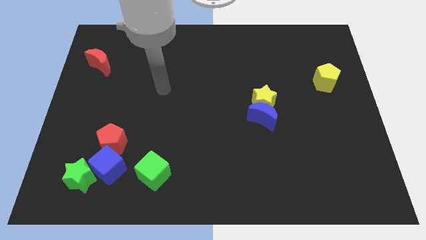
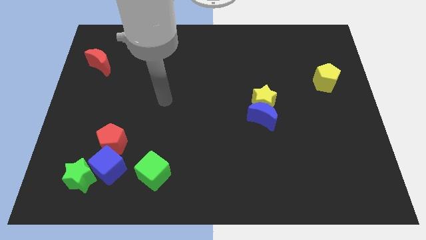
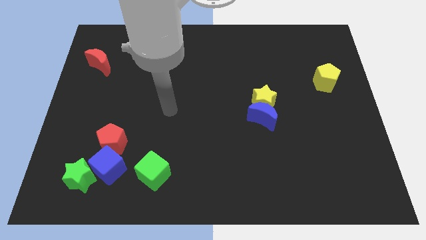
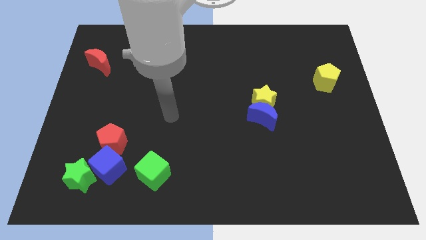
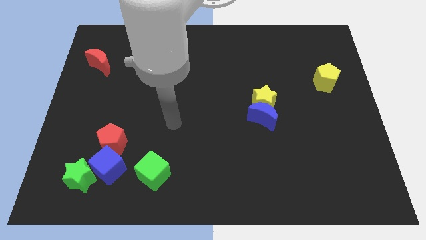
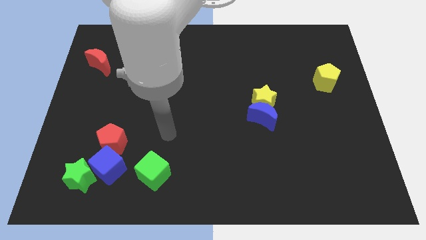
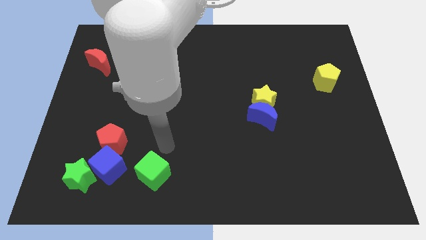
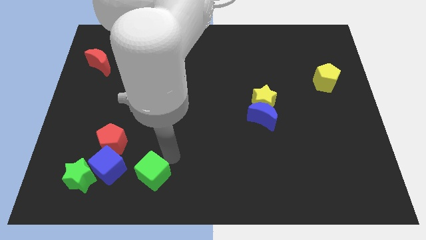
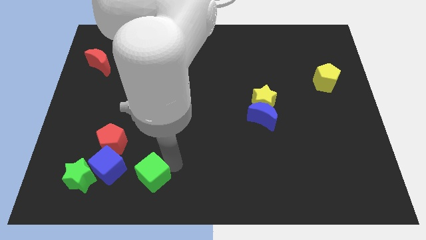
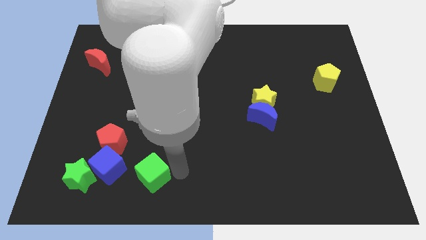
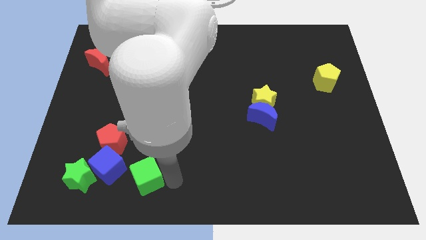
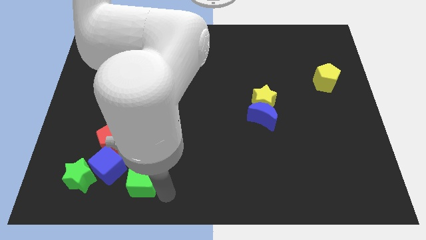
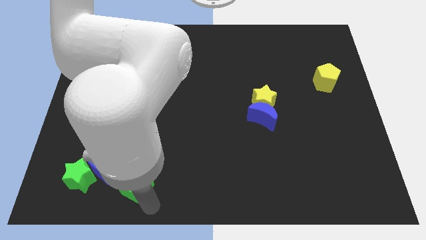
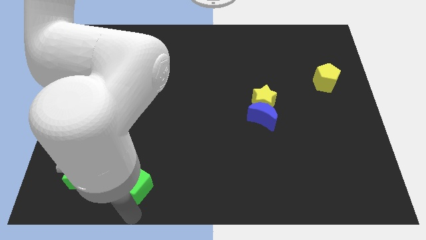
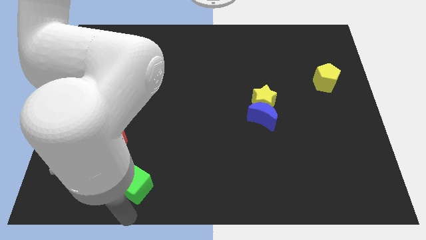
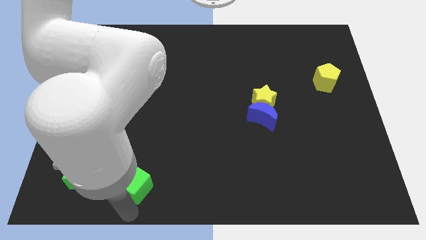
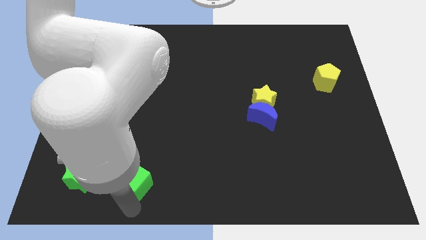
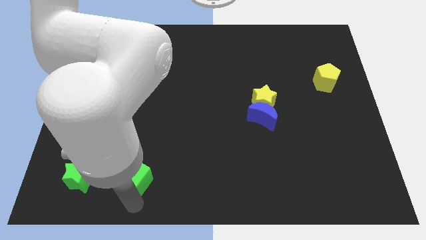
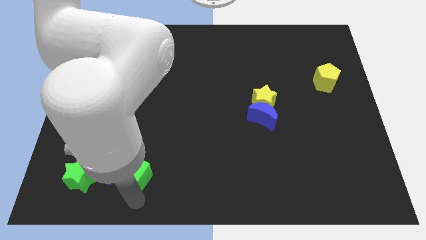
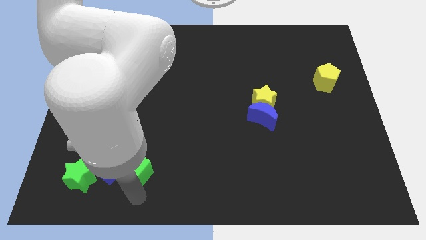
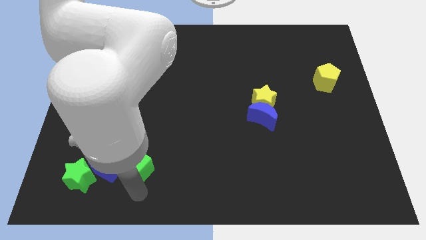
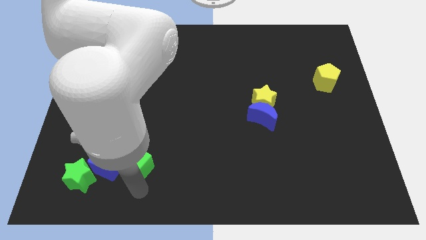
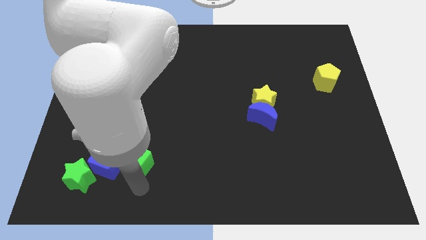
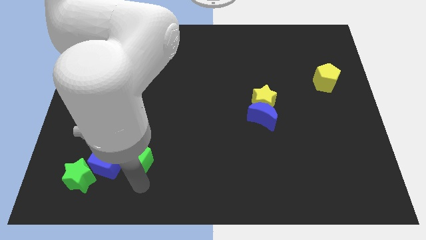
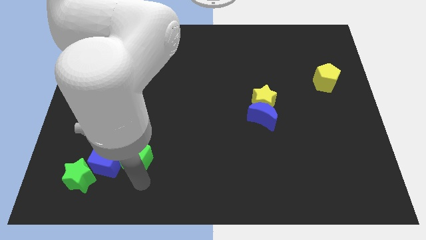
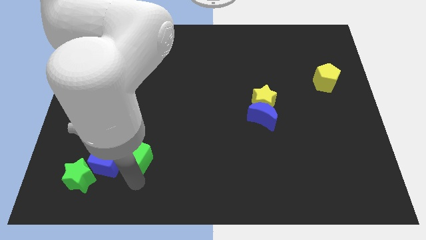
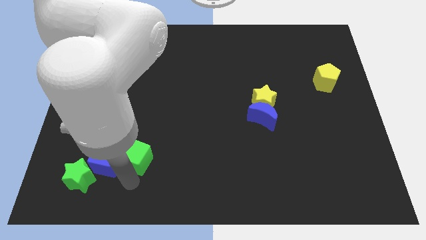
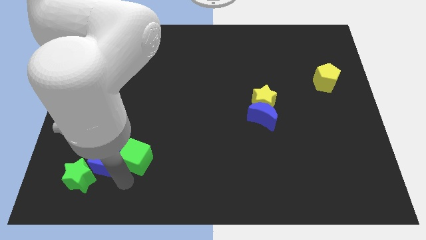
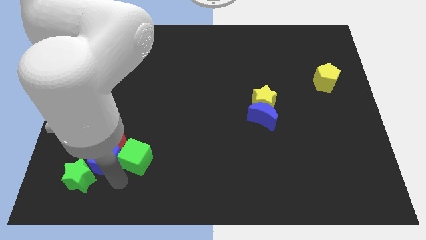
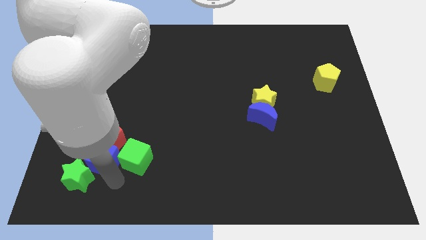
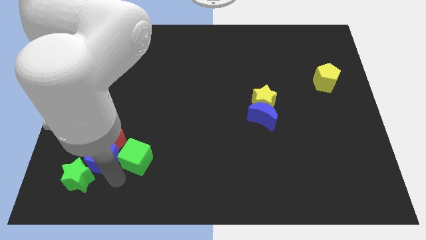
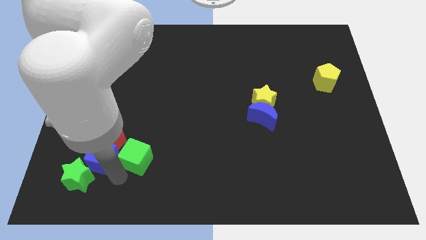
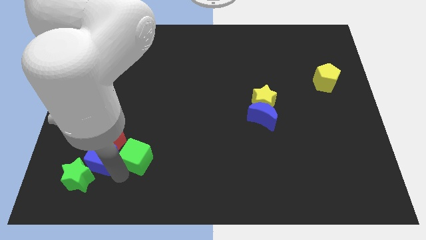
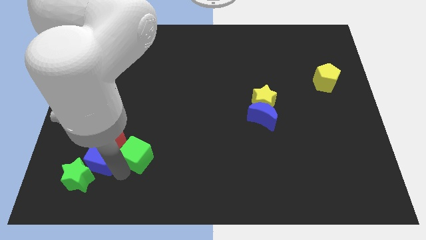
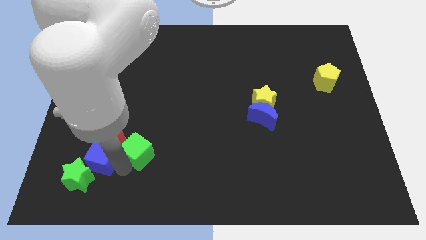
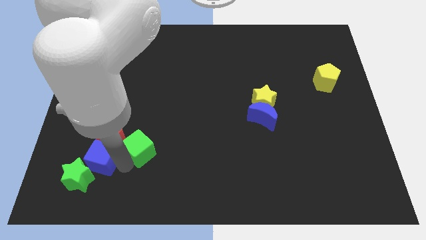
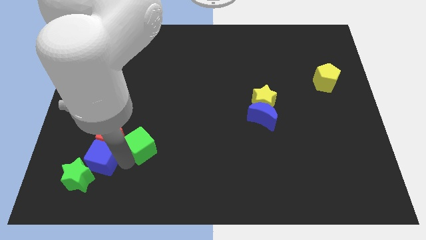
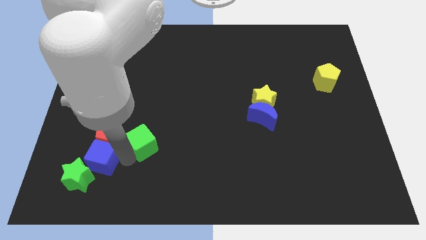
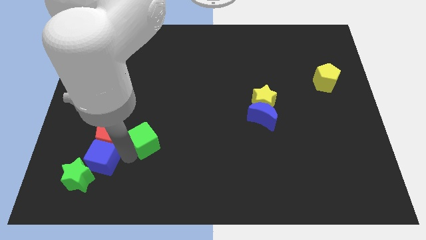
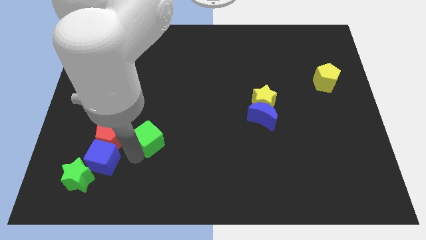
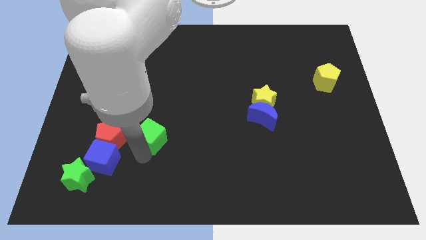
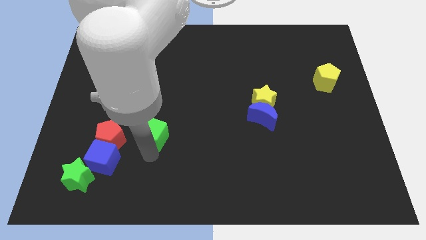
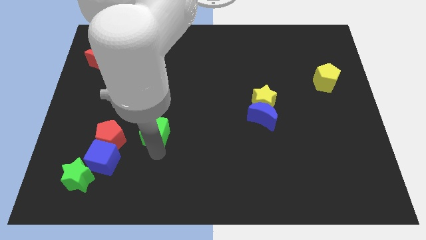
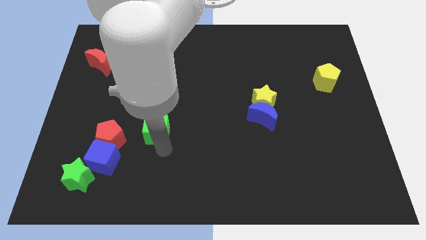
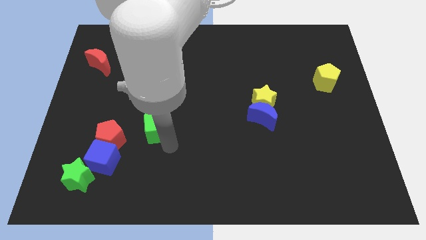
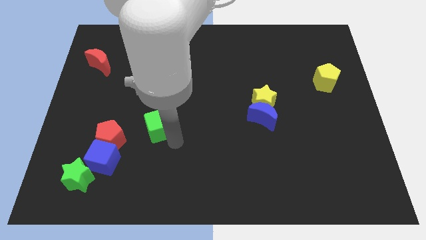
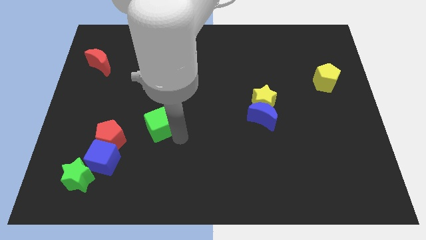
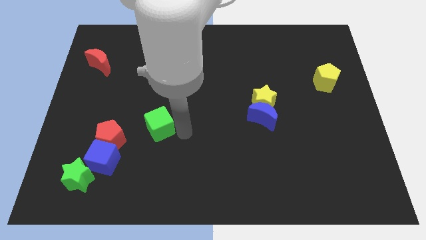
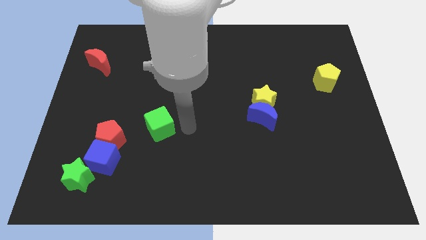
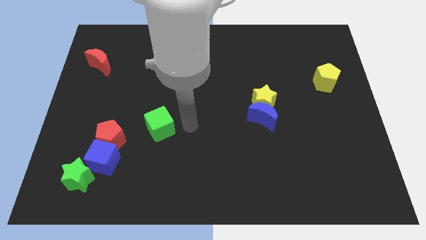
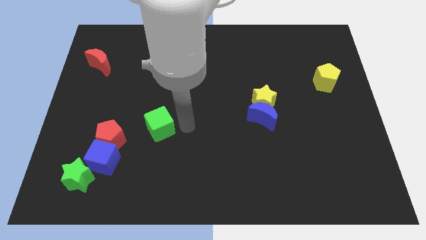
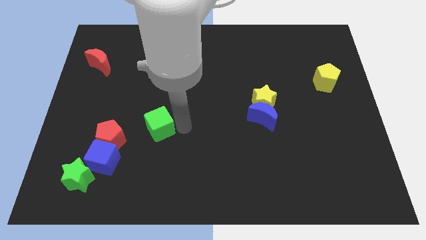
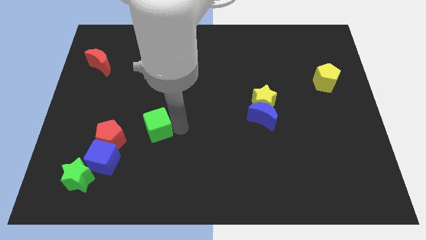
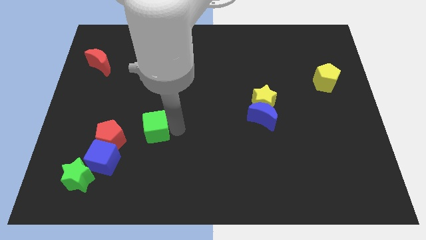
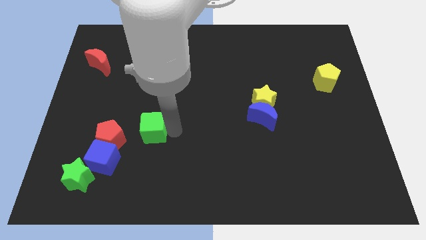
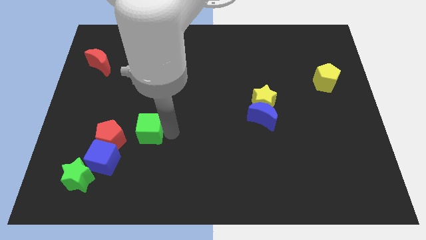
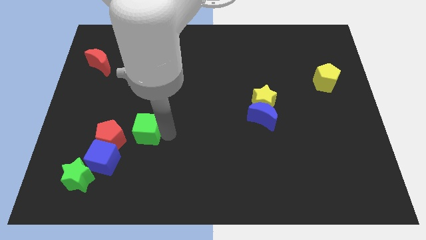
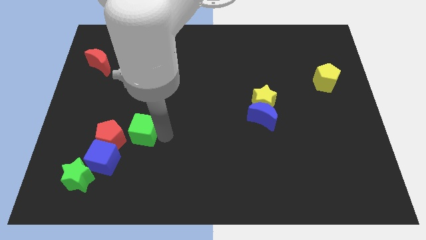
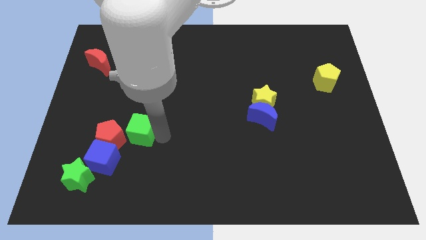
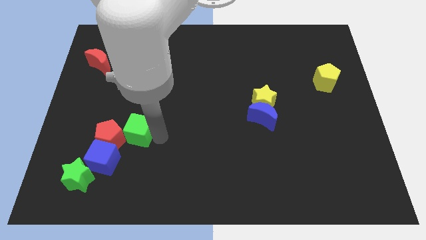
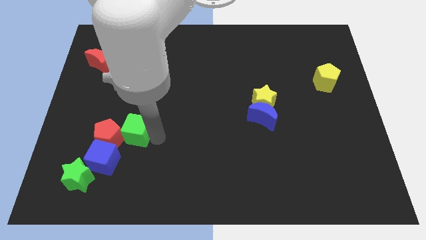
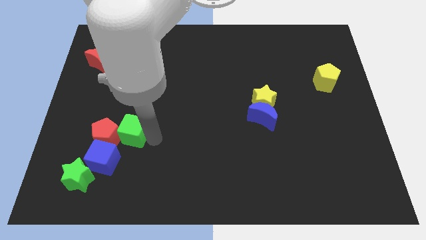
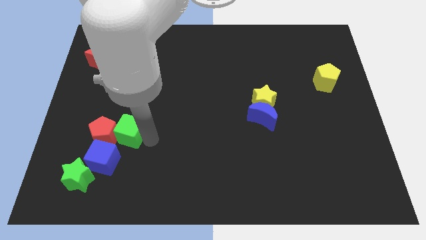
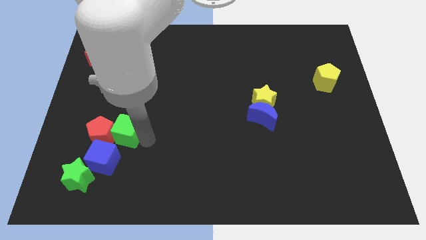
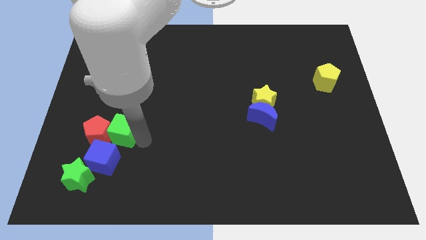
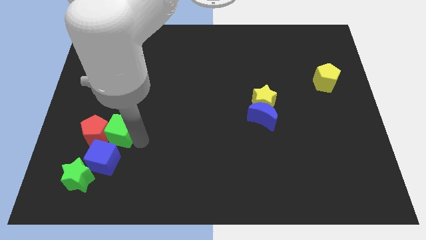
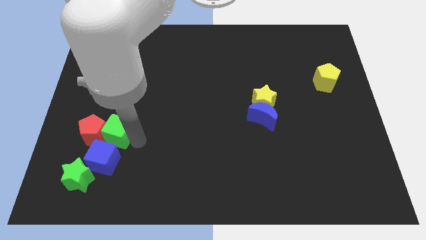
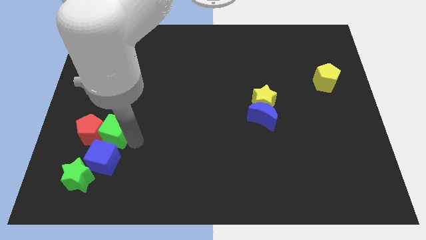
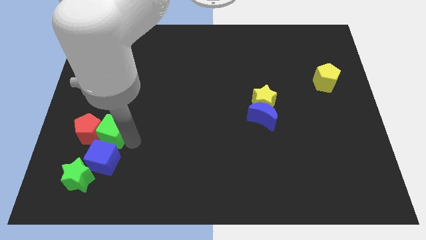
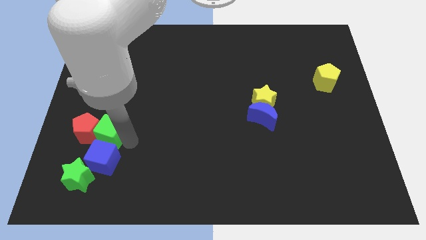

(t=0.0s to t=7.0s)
move the green cube to the top left of the blue cube

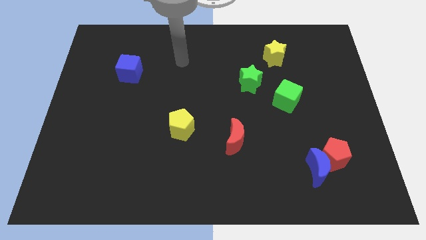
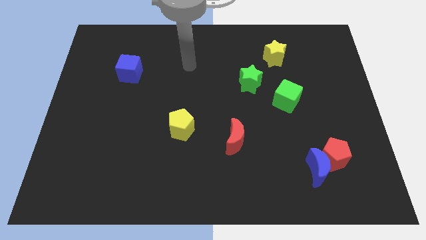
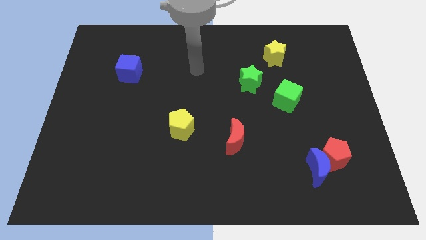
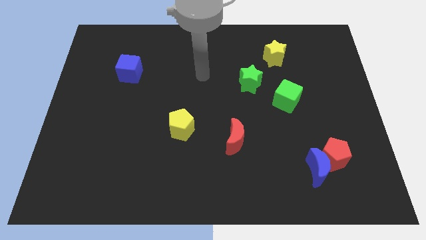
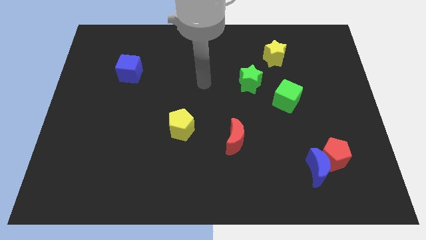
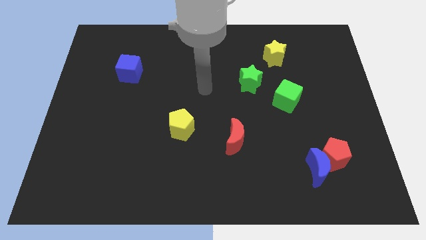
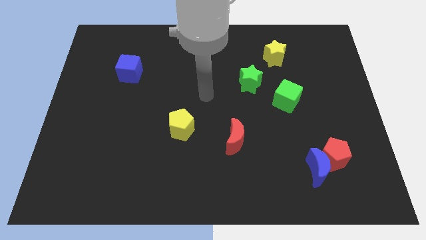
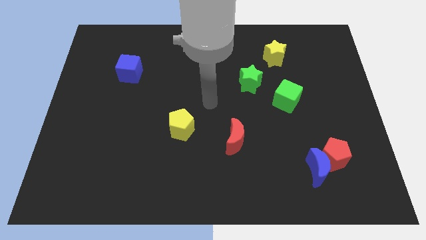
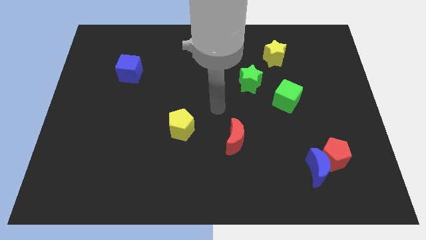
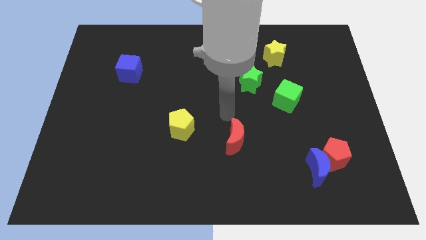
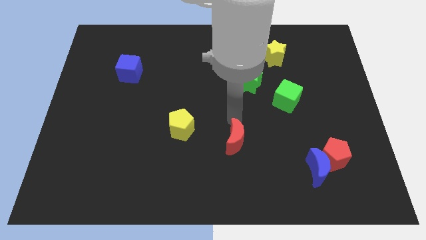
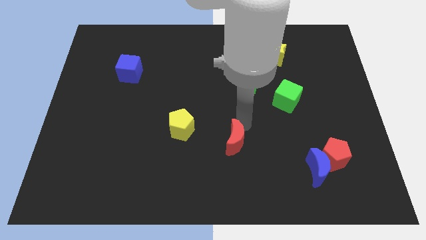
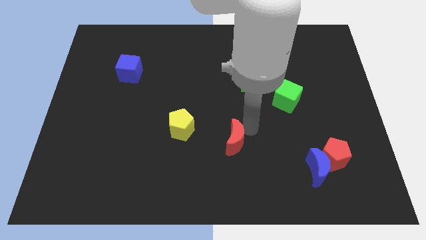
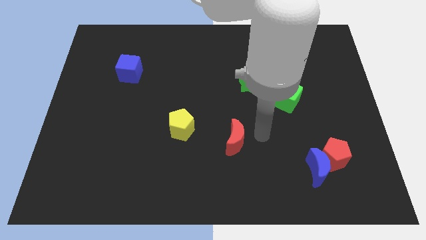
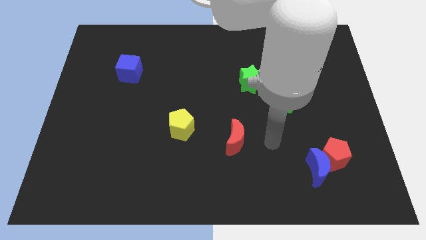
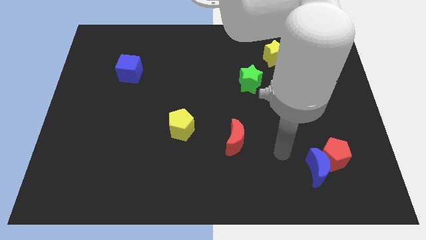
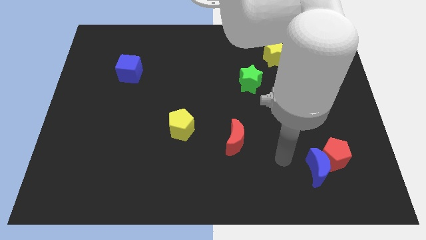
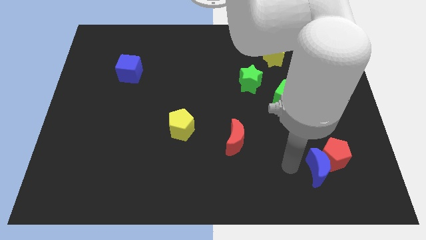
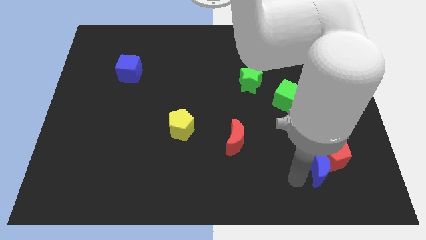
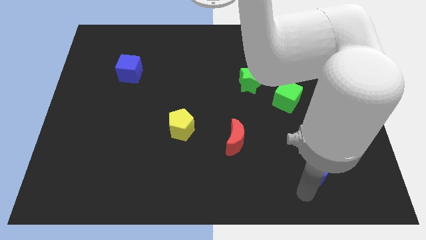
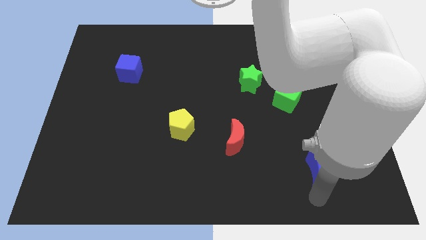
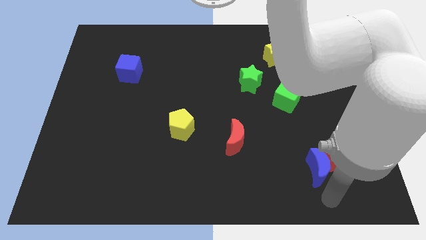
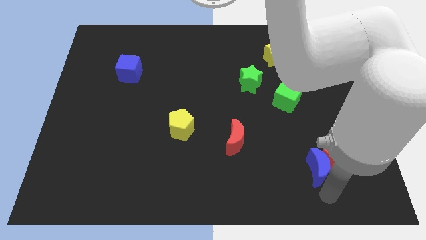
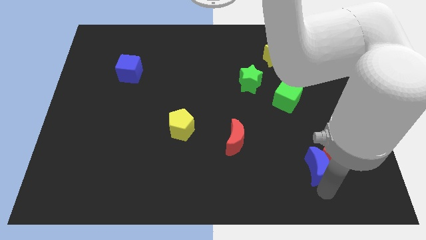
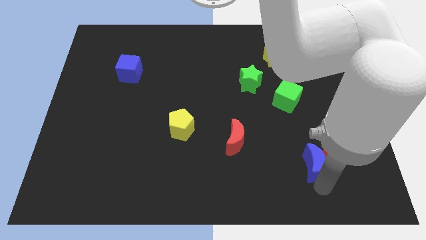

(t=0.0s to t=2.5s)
push the blue moon to the top left of the red pentagon
